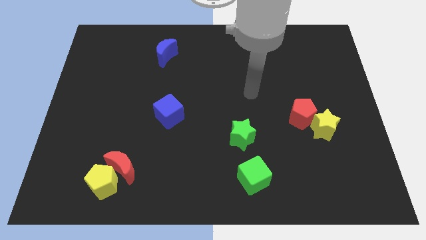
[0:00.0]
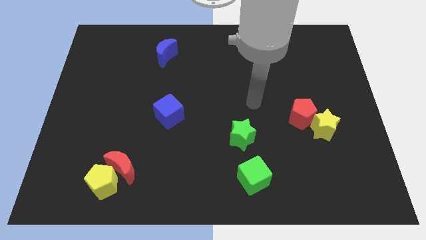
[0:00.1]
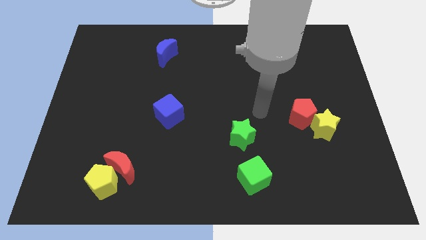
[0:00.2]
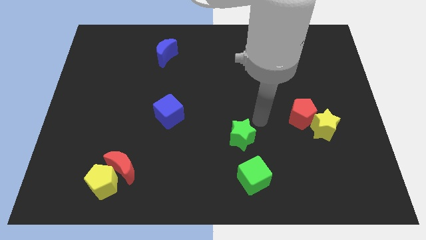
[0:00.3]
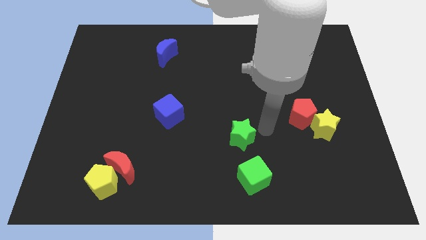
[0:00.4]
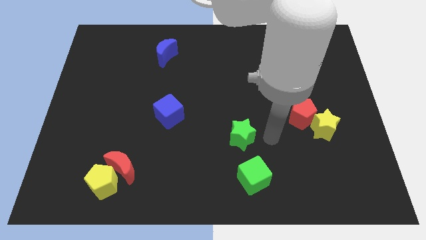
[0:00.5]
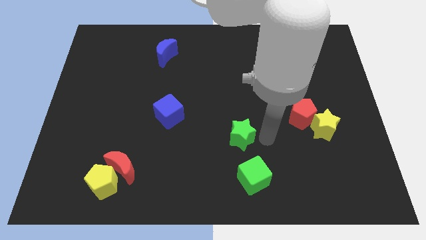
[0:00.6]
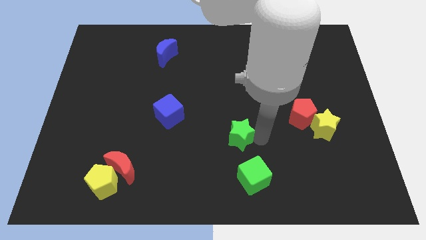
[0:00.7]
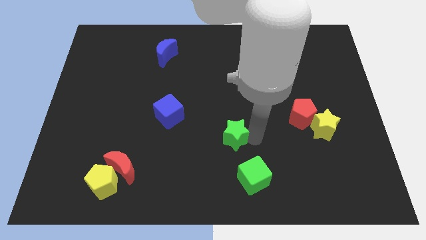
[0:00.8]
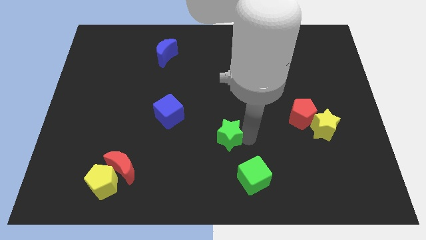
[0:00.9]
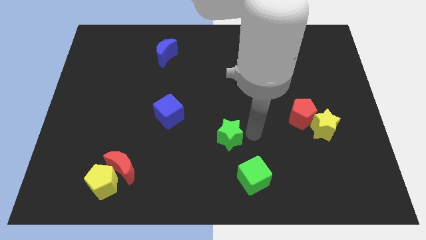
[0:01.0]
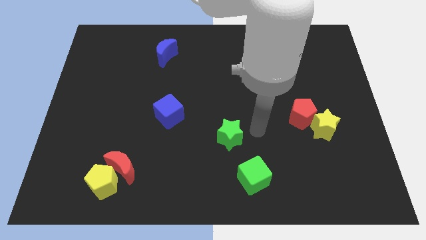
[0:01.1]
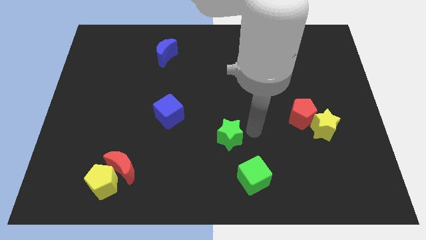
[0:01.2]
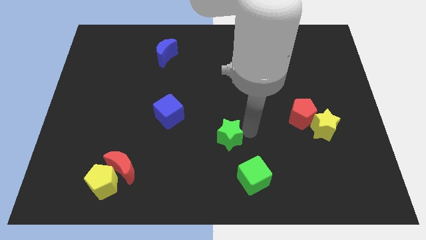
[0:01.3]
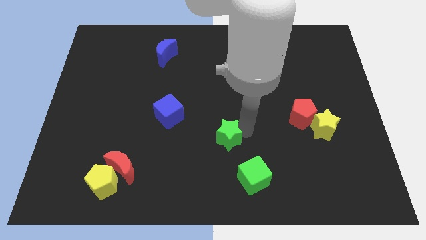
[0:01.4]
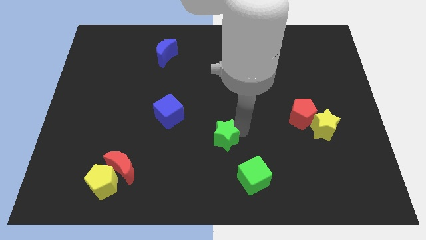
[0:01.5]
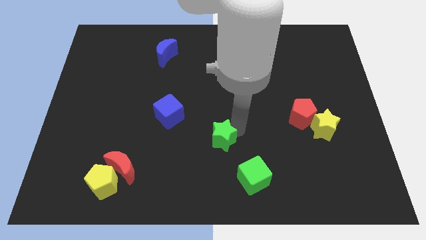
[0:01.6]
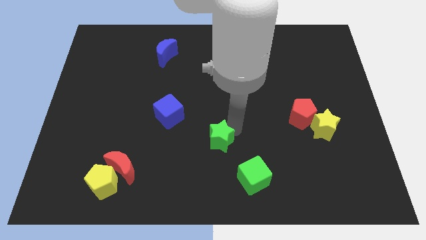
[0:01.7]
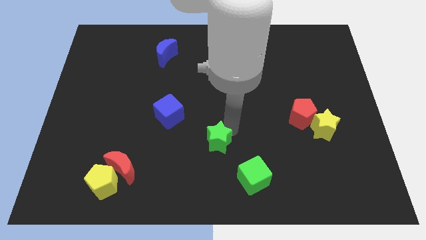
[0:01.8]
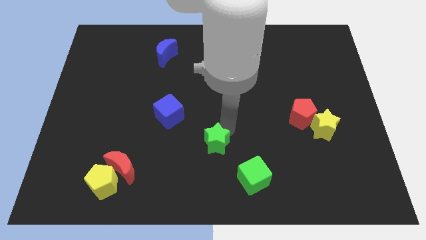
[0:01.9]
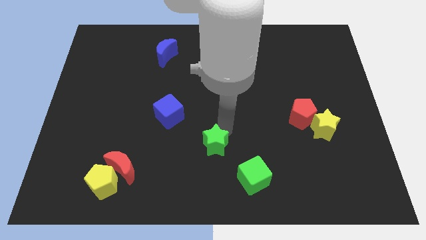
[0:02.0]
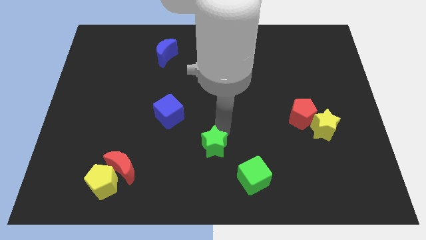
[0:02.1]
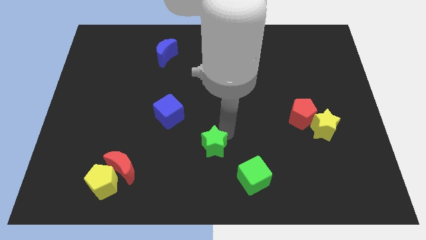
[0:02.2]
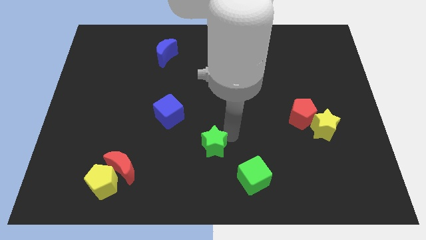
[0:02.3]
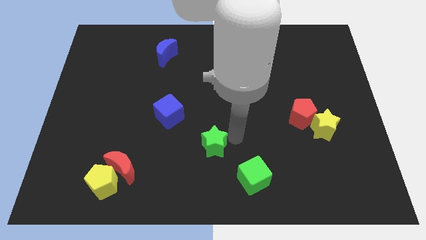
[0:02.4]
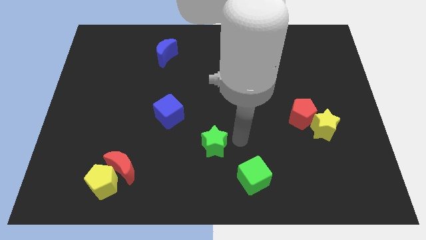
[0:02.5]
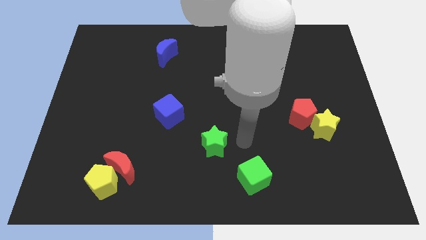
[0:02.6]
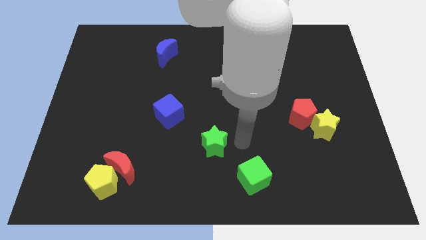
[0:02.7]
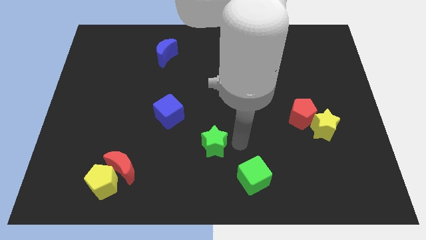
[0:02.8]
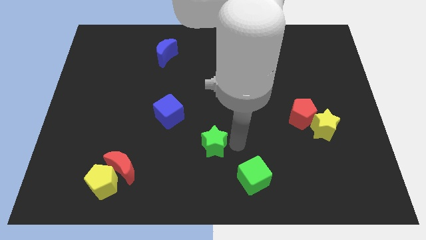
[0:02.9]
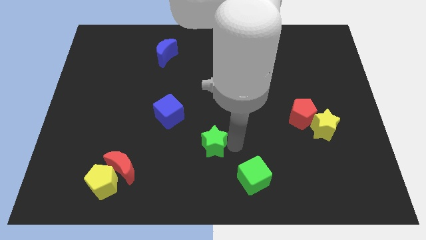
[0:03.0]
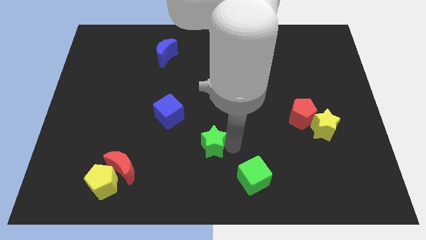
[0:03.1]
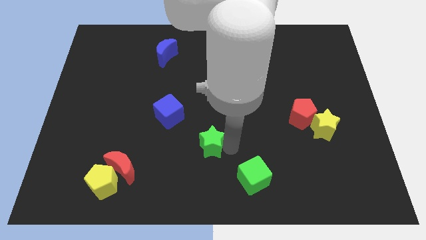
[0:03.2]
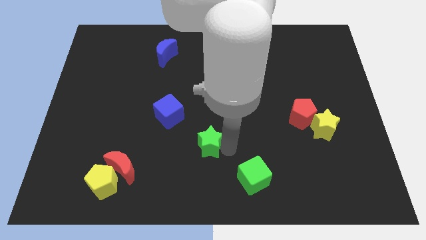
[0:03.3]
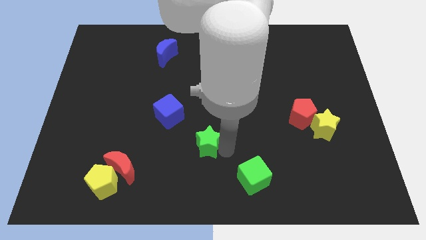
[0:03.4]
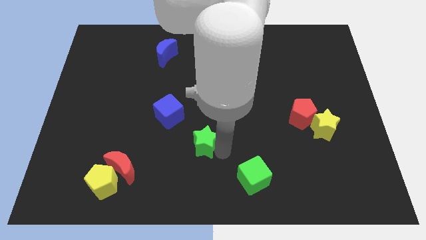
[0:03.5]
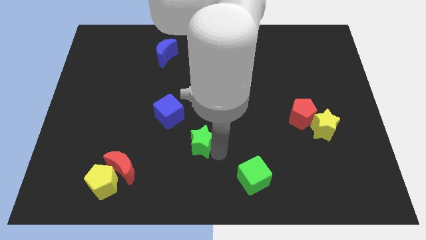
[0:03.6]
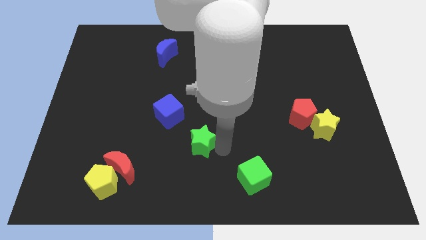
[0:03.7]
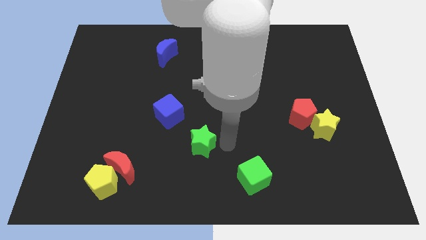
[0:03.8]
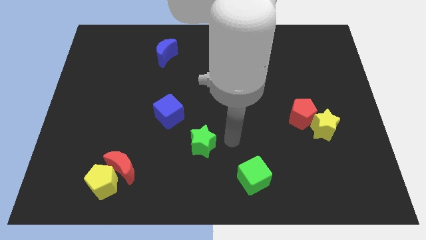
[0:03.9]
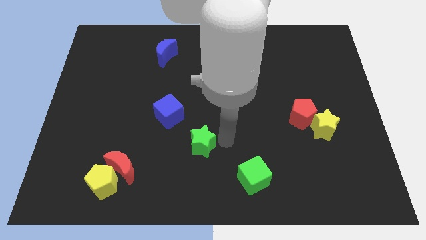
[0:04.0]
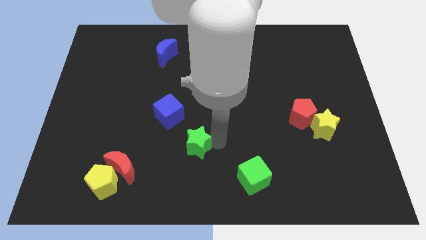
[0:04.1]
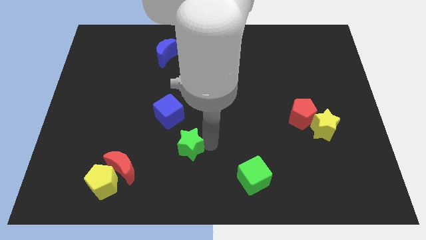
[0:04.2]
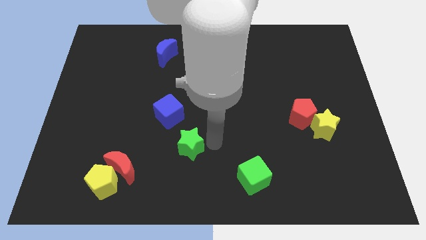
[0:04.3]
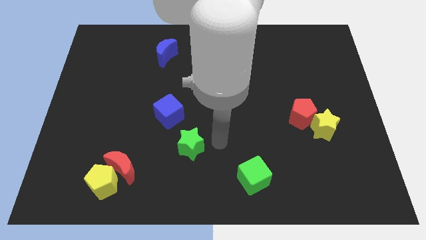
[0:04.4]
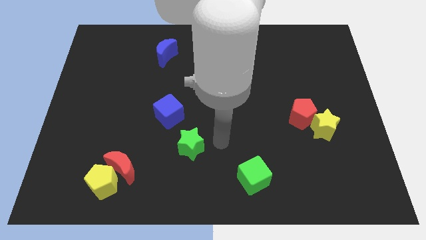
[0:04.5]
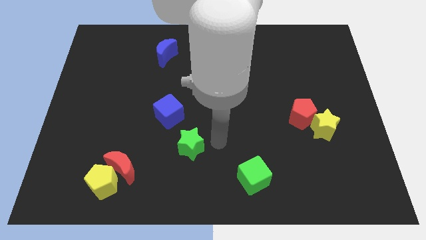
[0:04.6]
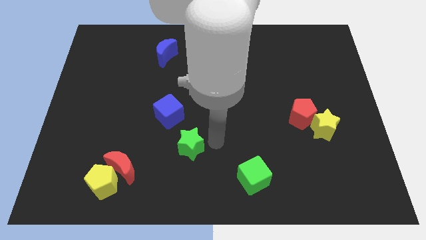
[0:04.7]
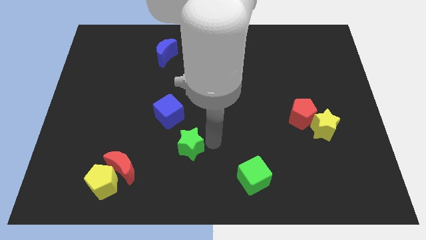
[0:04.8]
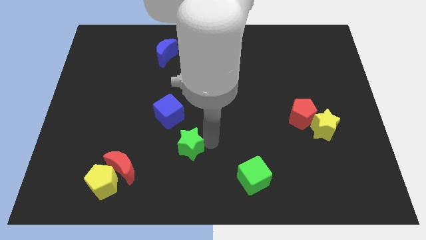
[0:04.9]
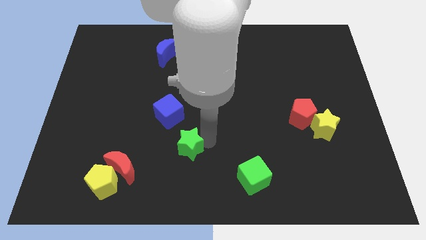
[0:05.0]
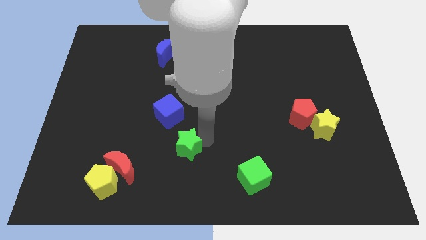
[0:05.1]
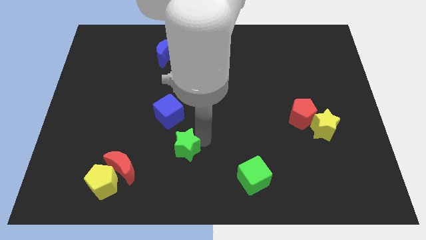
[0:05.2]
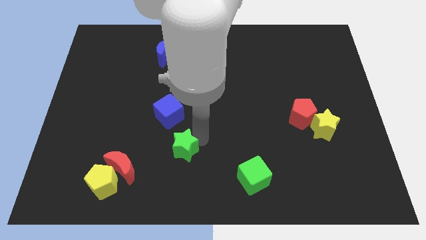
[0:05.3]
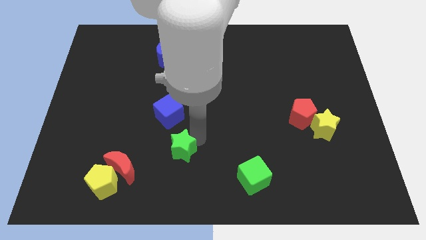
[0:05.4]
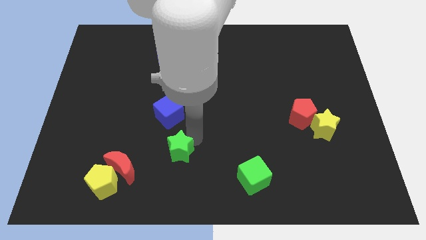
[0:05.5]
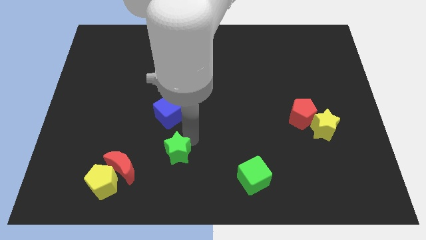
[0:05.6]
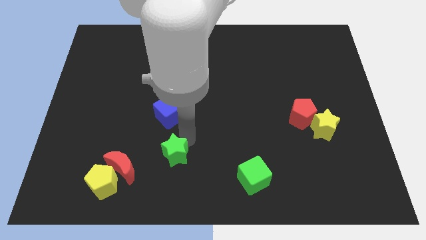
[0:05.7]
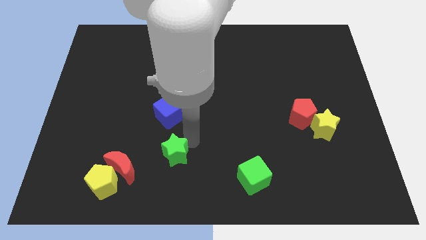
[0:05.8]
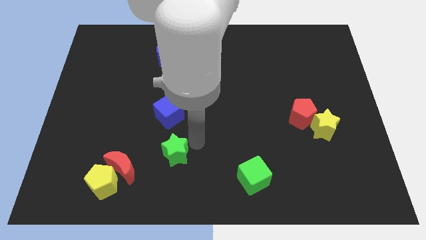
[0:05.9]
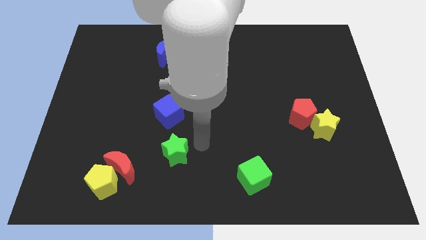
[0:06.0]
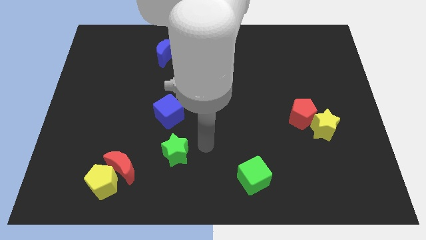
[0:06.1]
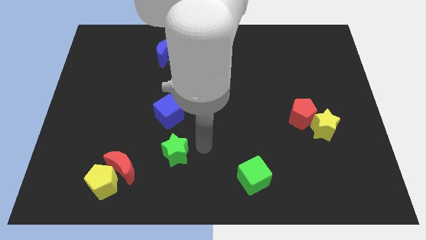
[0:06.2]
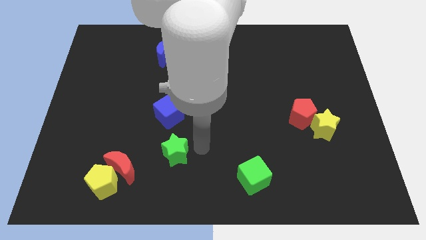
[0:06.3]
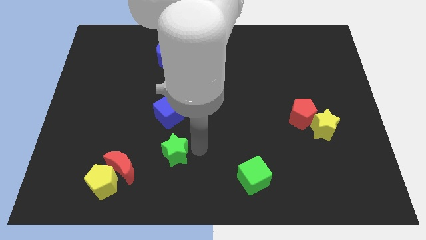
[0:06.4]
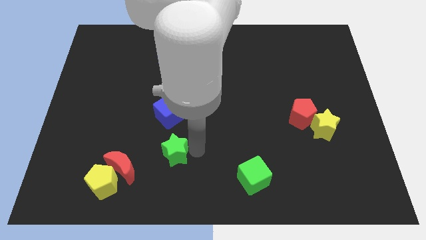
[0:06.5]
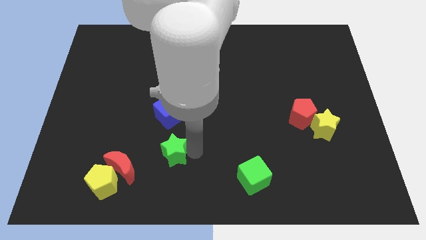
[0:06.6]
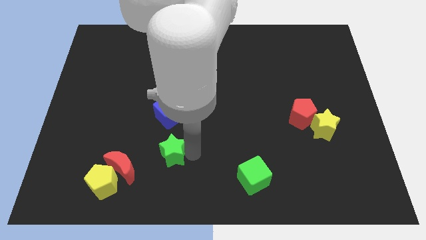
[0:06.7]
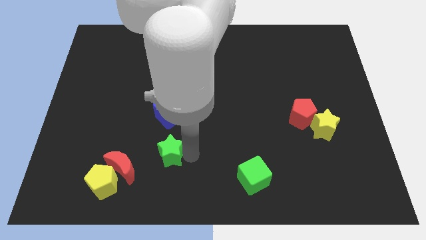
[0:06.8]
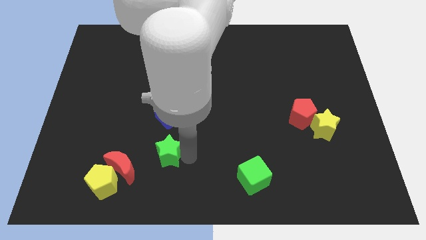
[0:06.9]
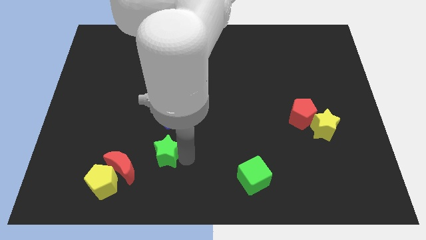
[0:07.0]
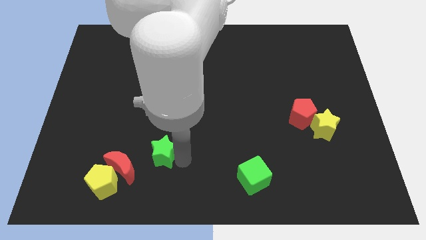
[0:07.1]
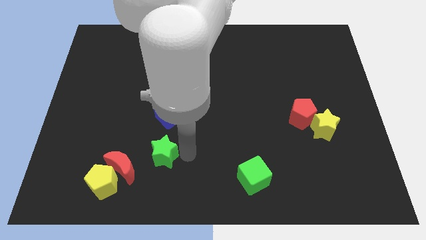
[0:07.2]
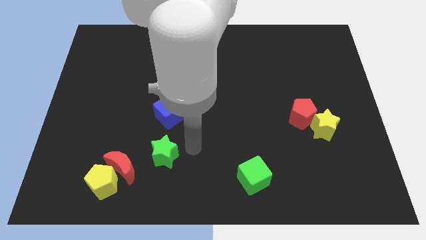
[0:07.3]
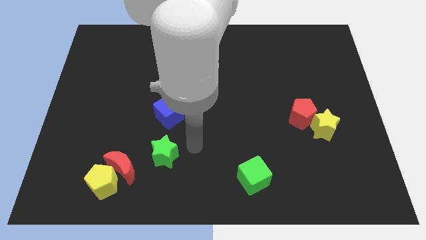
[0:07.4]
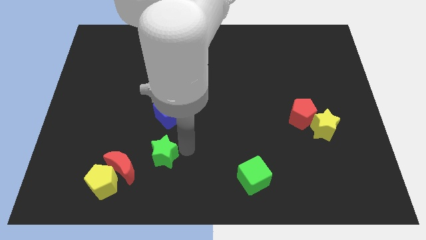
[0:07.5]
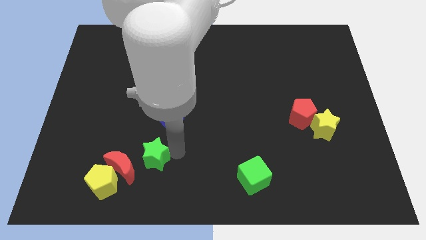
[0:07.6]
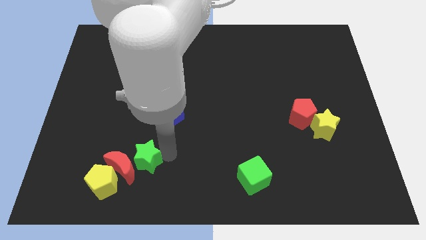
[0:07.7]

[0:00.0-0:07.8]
move the green star to the red moon

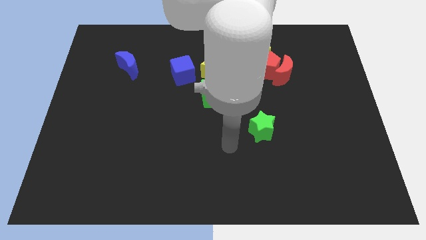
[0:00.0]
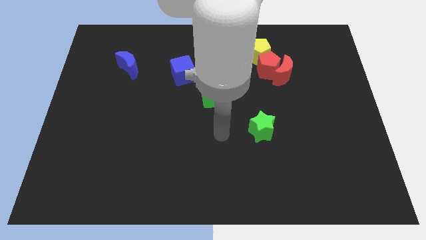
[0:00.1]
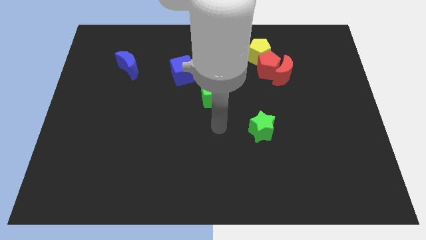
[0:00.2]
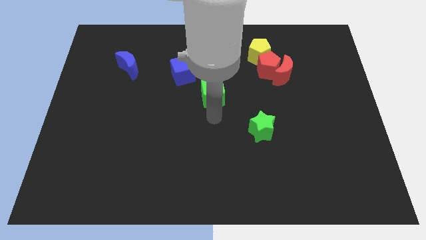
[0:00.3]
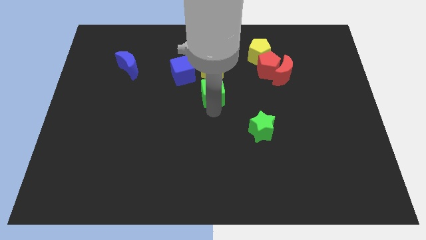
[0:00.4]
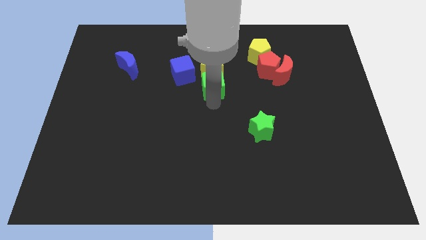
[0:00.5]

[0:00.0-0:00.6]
put the green cube towards the yellow star
